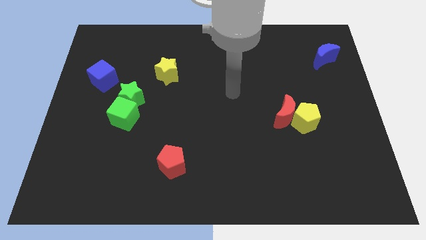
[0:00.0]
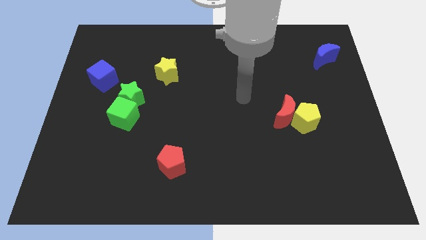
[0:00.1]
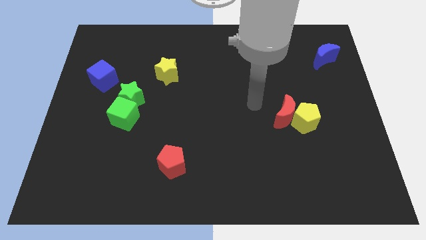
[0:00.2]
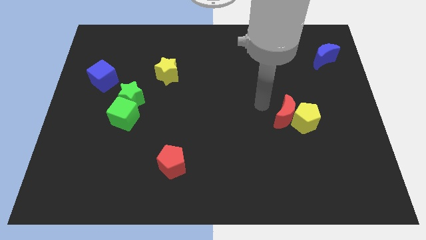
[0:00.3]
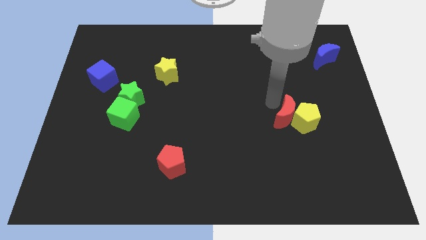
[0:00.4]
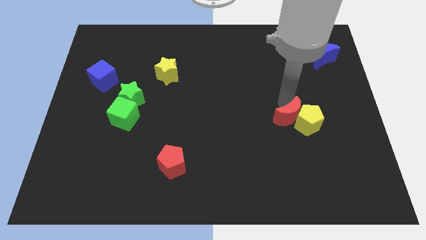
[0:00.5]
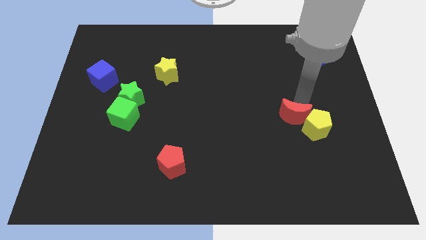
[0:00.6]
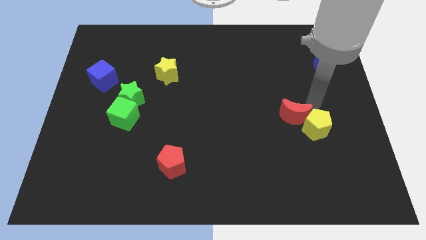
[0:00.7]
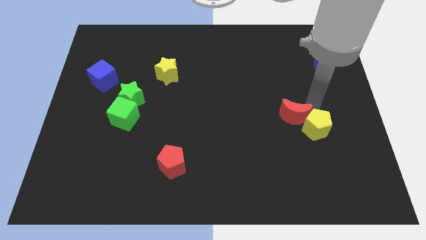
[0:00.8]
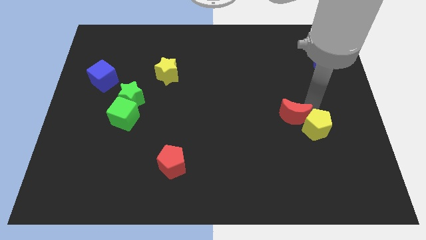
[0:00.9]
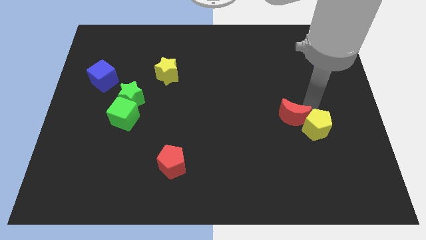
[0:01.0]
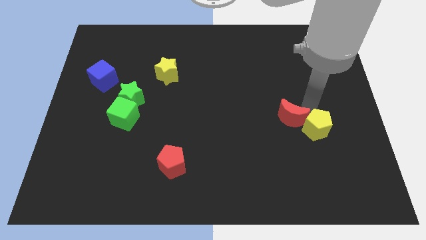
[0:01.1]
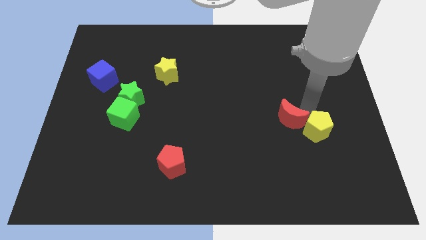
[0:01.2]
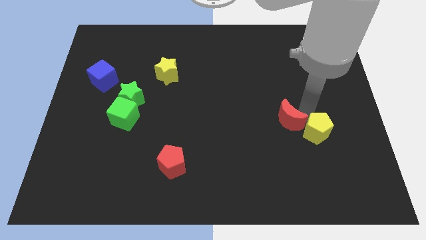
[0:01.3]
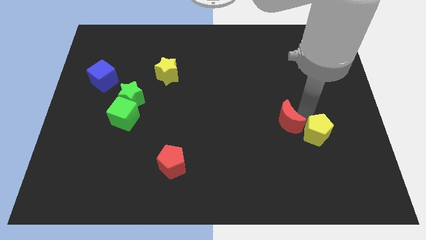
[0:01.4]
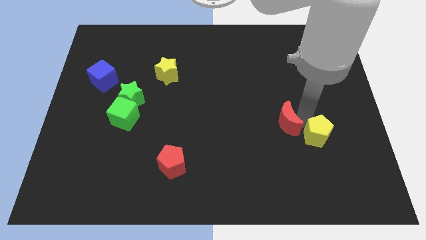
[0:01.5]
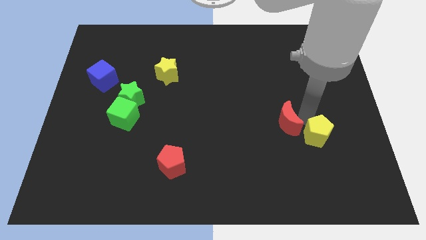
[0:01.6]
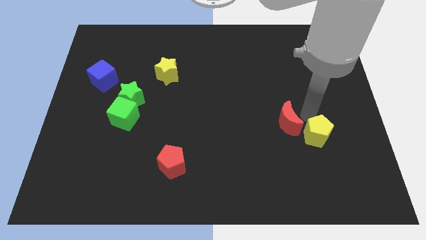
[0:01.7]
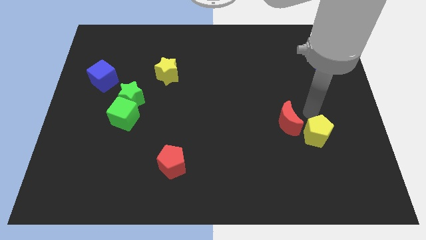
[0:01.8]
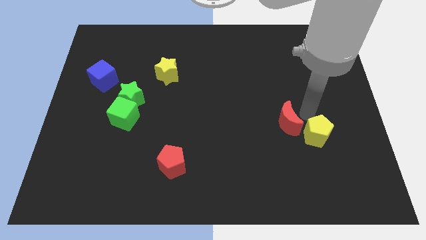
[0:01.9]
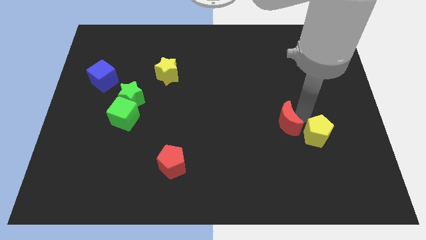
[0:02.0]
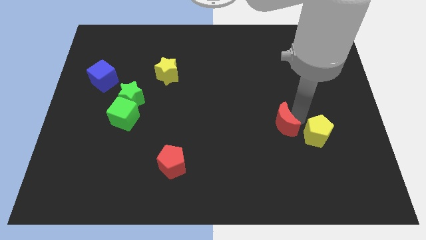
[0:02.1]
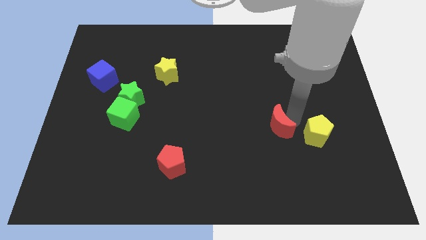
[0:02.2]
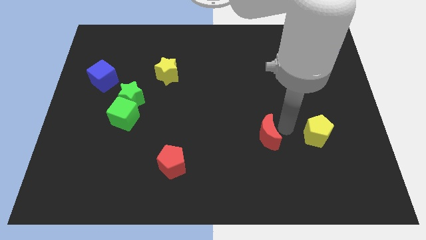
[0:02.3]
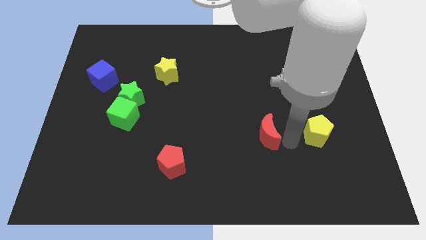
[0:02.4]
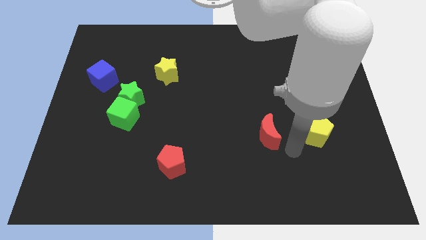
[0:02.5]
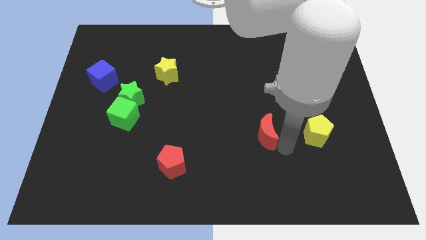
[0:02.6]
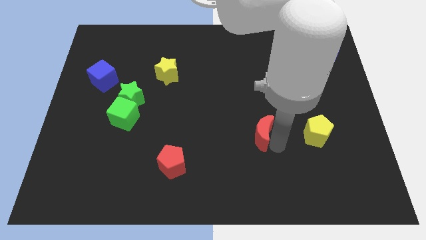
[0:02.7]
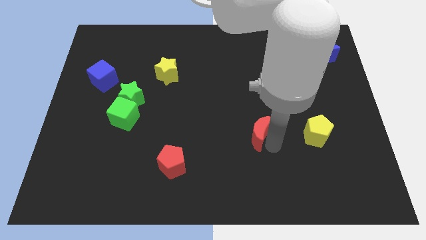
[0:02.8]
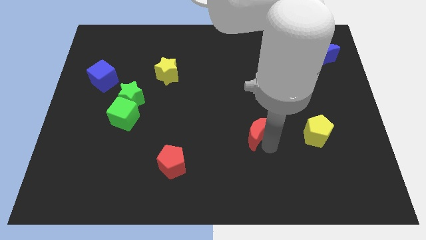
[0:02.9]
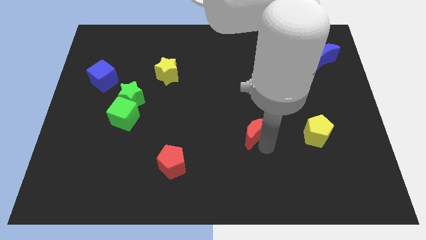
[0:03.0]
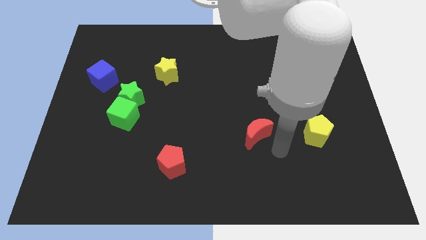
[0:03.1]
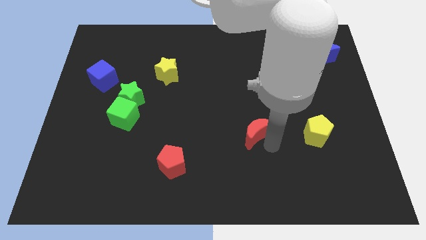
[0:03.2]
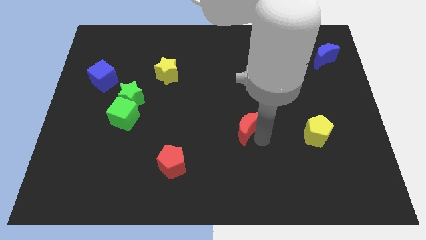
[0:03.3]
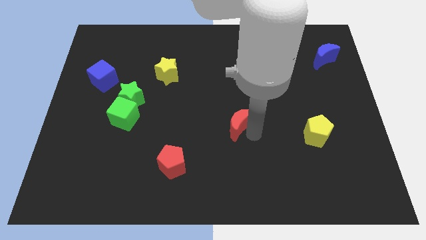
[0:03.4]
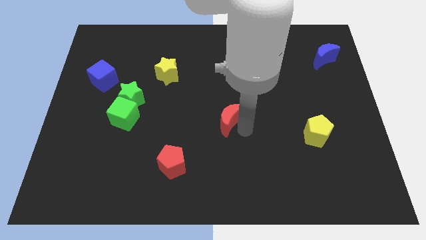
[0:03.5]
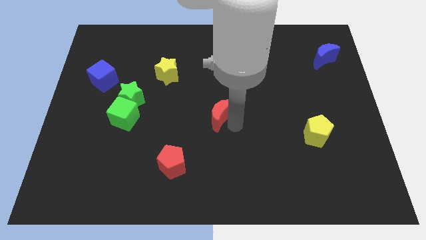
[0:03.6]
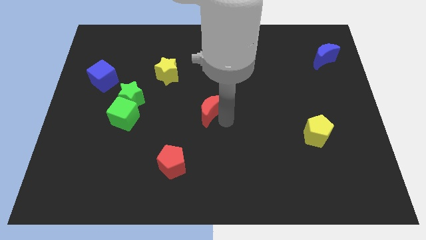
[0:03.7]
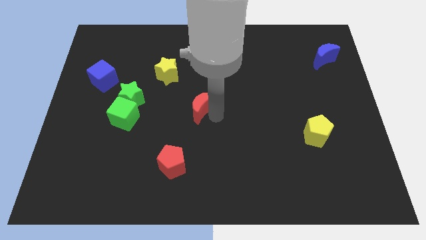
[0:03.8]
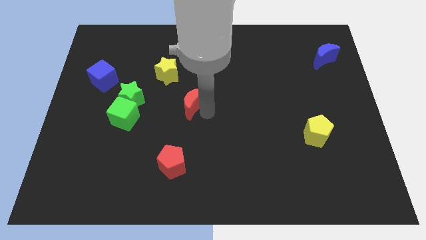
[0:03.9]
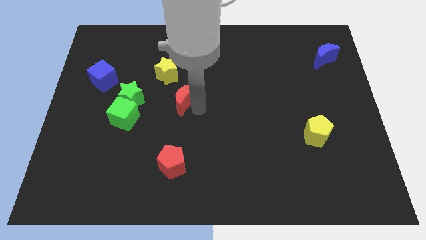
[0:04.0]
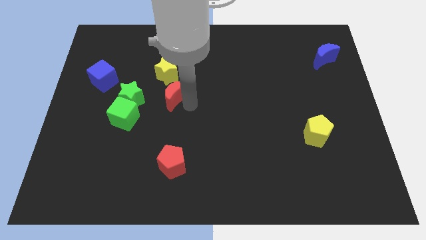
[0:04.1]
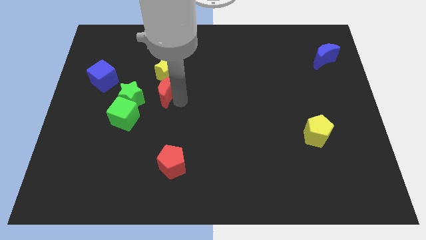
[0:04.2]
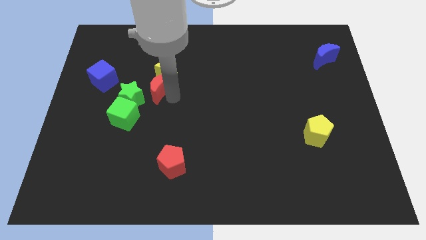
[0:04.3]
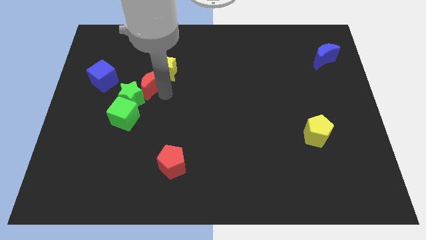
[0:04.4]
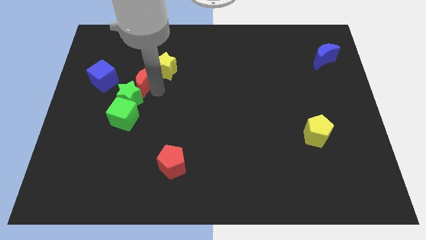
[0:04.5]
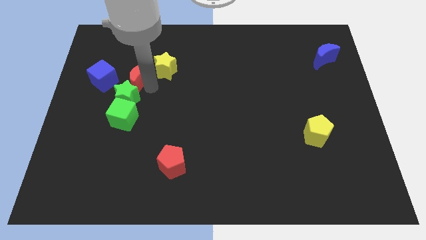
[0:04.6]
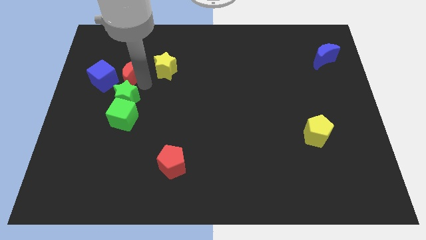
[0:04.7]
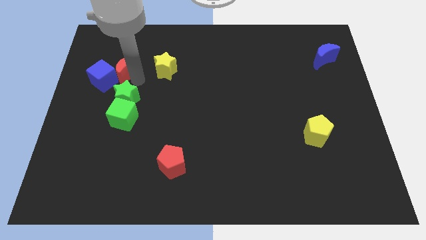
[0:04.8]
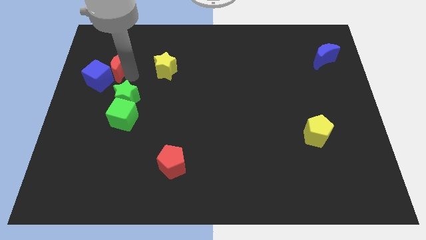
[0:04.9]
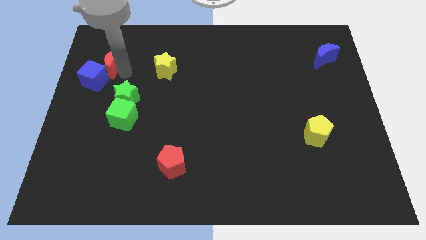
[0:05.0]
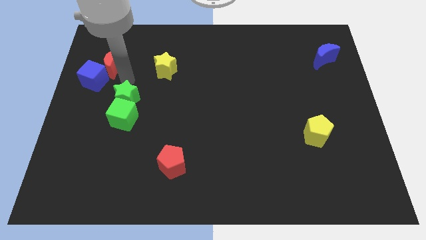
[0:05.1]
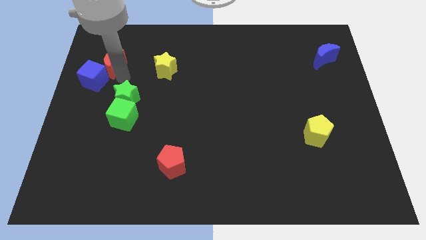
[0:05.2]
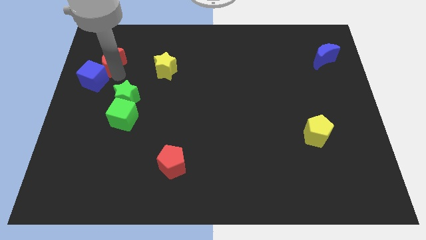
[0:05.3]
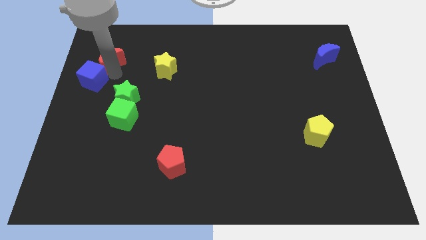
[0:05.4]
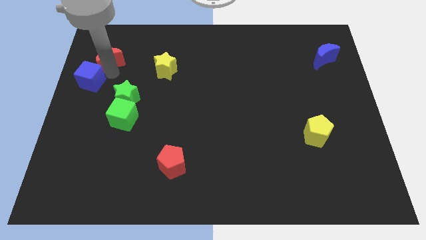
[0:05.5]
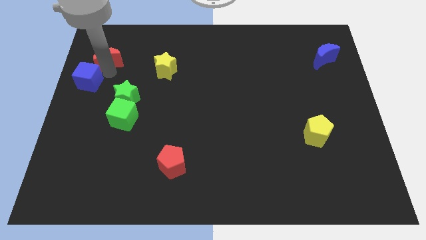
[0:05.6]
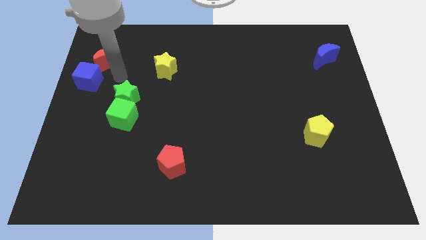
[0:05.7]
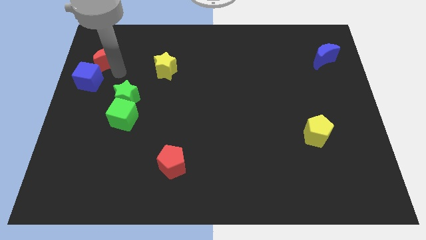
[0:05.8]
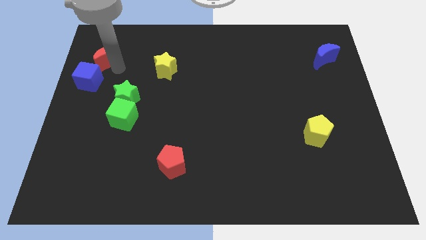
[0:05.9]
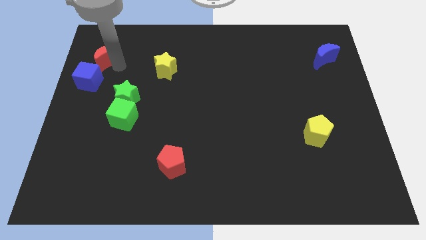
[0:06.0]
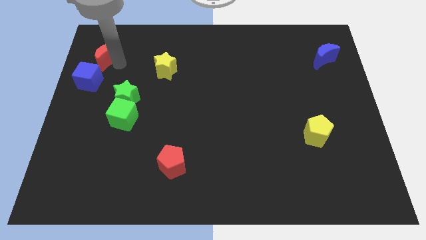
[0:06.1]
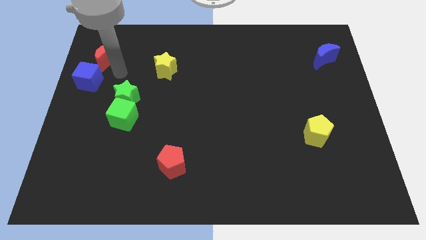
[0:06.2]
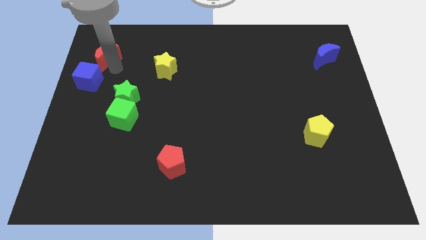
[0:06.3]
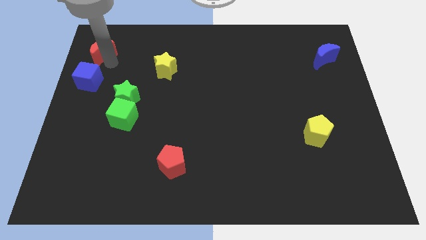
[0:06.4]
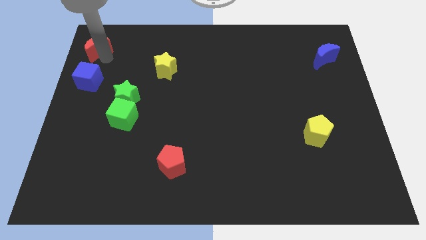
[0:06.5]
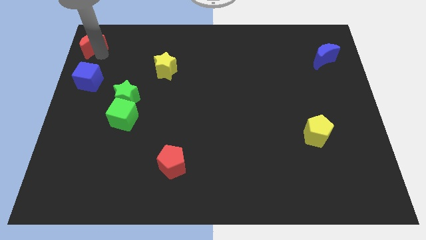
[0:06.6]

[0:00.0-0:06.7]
push the red moon to the upper left corner
